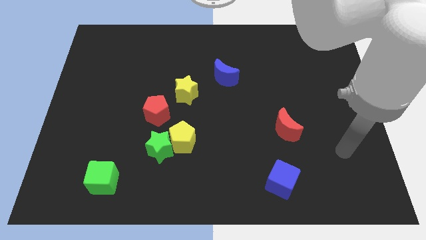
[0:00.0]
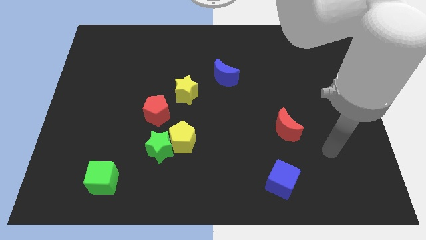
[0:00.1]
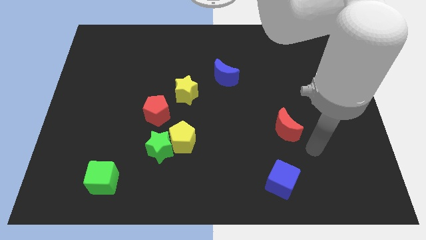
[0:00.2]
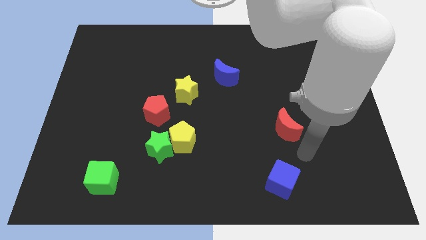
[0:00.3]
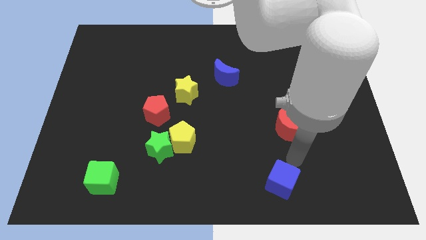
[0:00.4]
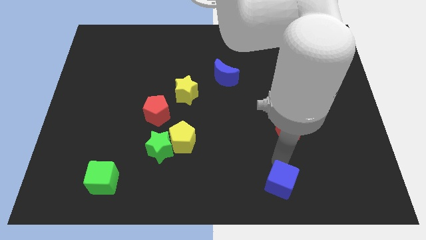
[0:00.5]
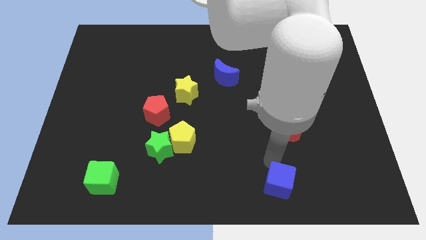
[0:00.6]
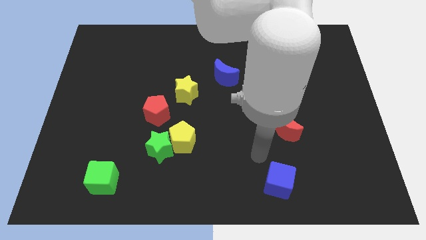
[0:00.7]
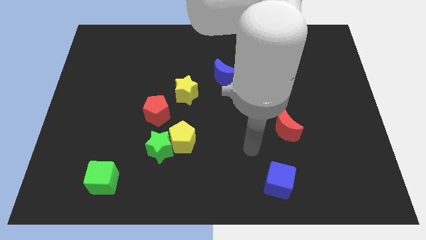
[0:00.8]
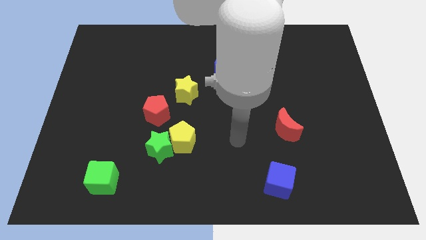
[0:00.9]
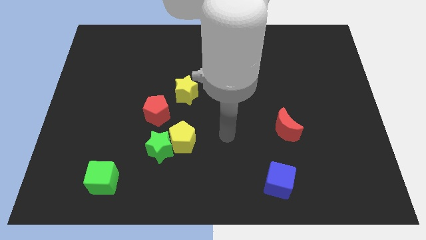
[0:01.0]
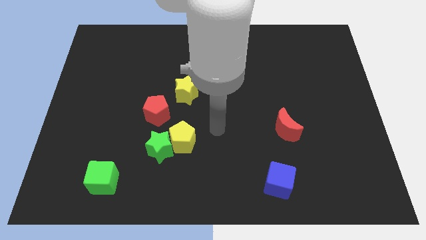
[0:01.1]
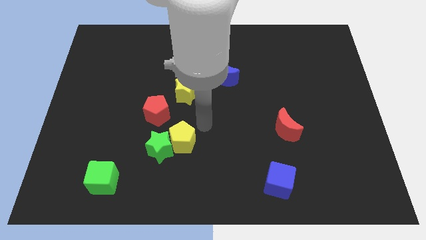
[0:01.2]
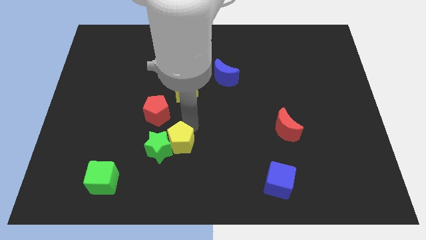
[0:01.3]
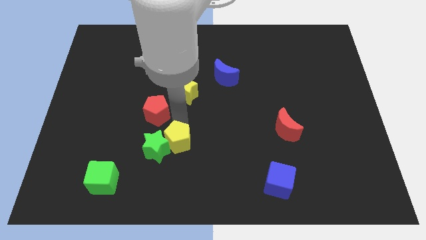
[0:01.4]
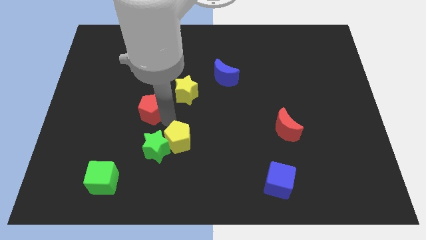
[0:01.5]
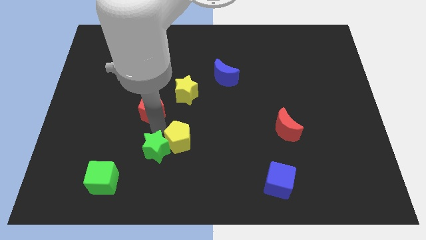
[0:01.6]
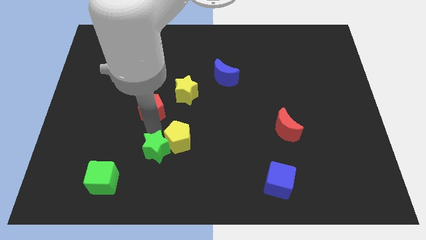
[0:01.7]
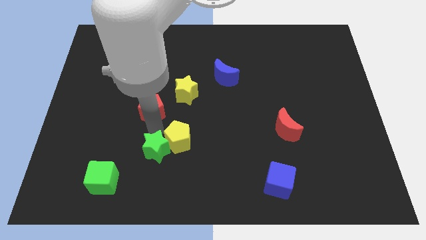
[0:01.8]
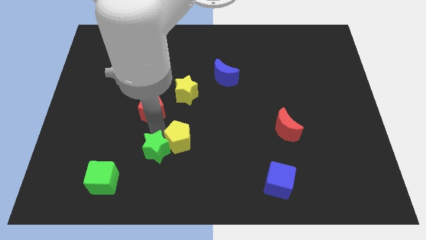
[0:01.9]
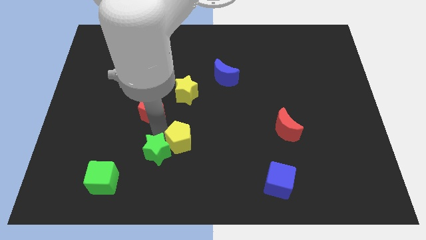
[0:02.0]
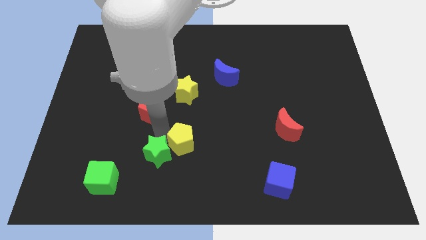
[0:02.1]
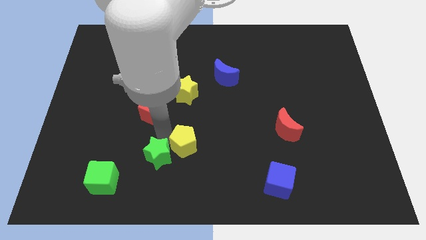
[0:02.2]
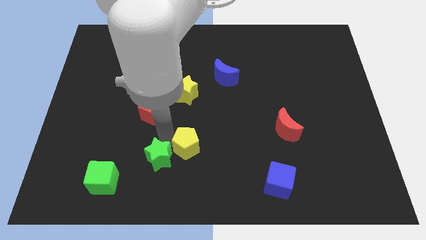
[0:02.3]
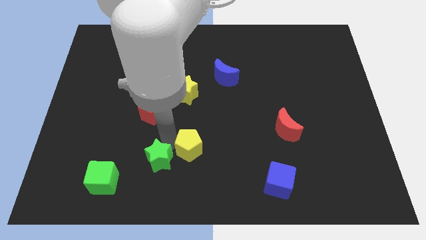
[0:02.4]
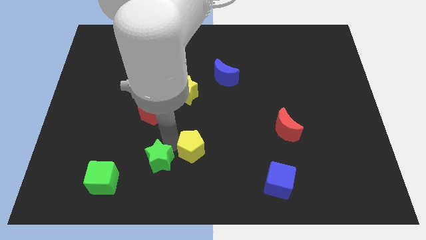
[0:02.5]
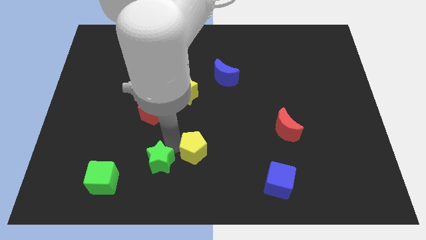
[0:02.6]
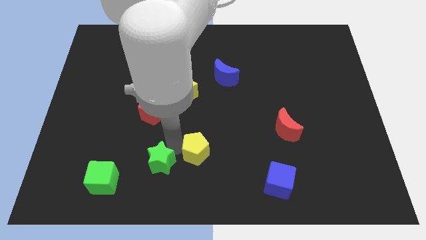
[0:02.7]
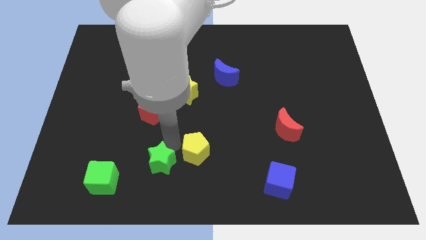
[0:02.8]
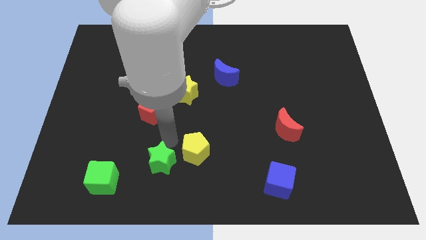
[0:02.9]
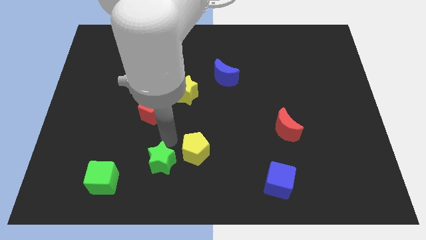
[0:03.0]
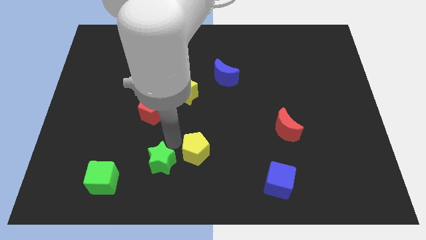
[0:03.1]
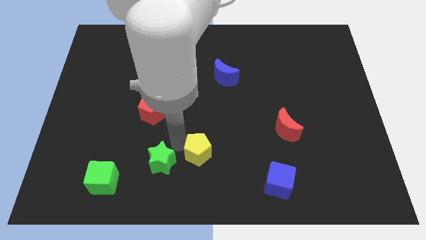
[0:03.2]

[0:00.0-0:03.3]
move the yellow pentagon away from the green star and red pentagon

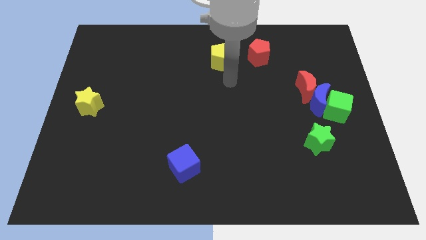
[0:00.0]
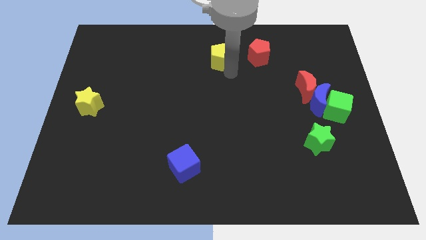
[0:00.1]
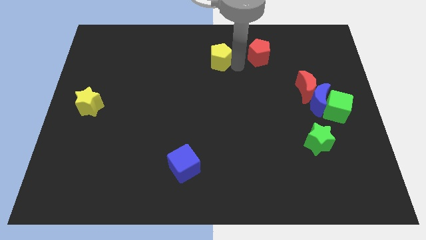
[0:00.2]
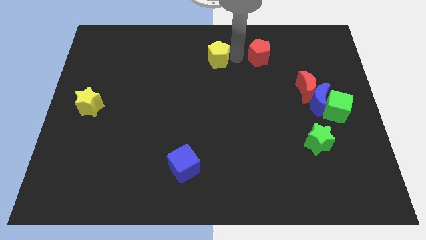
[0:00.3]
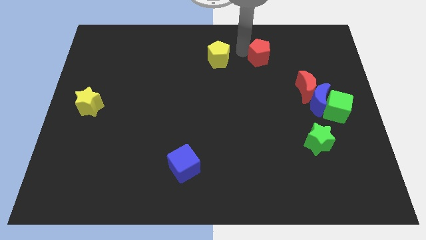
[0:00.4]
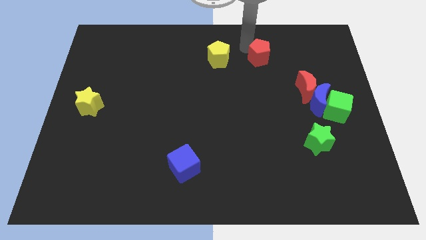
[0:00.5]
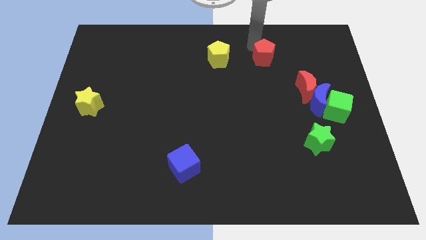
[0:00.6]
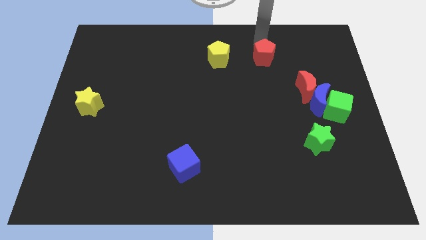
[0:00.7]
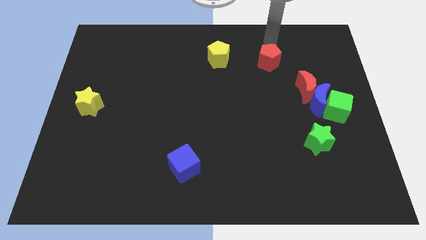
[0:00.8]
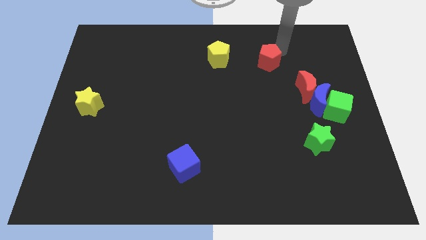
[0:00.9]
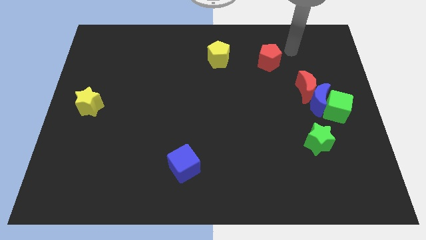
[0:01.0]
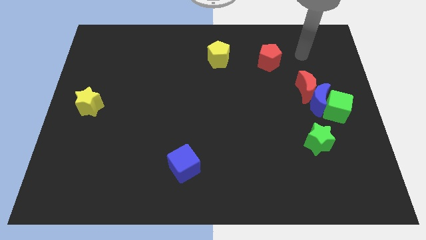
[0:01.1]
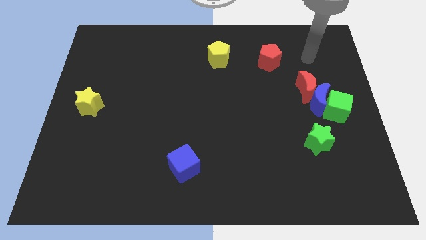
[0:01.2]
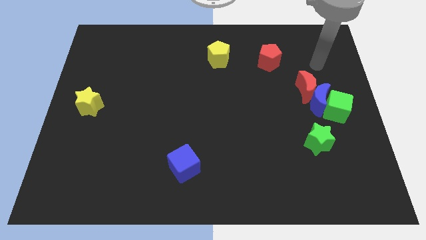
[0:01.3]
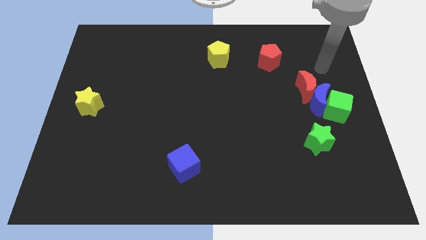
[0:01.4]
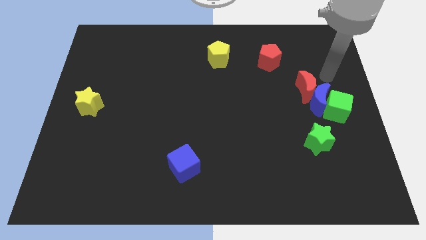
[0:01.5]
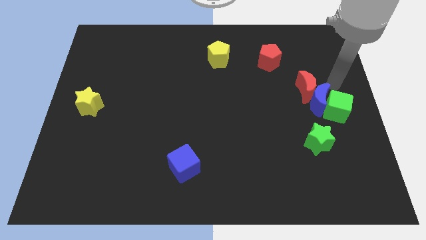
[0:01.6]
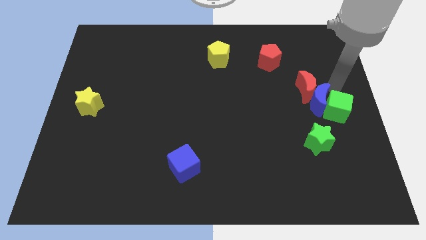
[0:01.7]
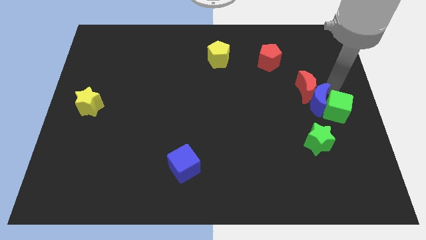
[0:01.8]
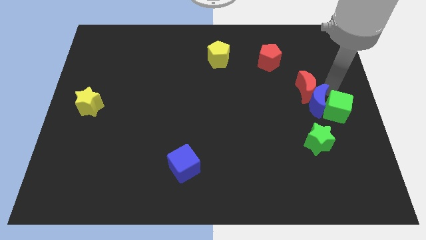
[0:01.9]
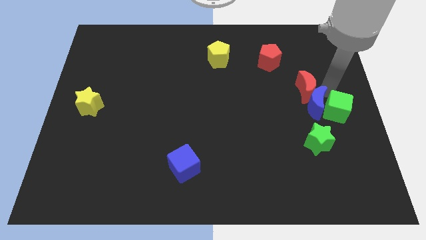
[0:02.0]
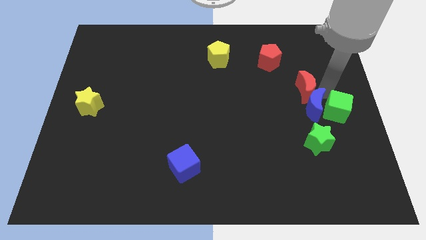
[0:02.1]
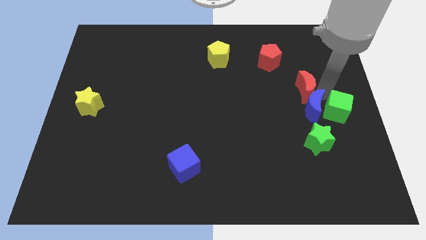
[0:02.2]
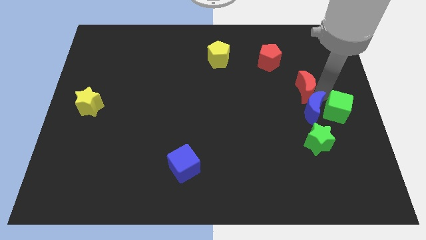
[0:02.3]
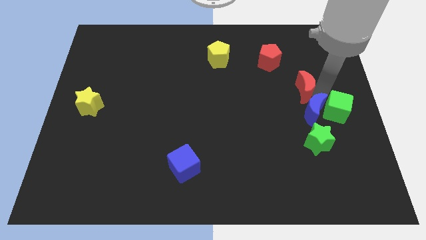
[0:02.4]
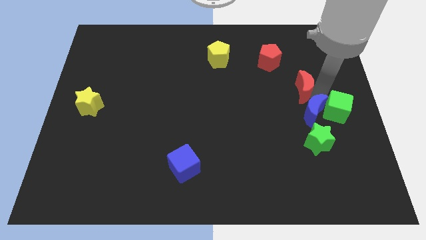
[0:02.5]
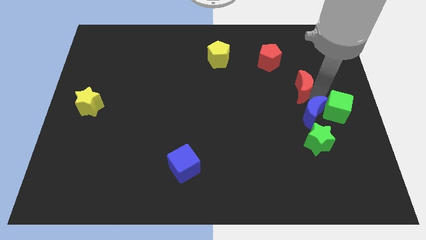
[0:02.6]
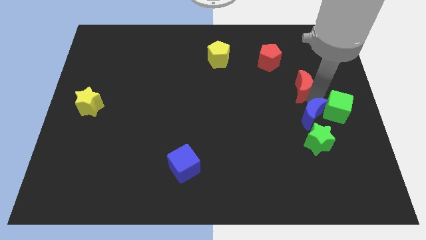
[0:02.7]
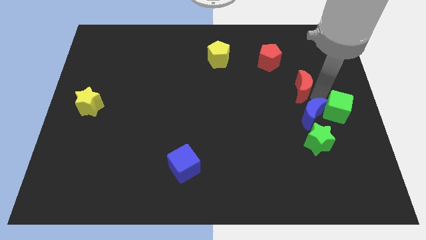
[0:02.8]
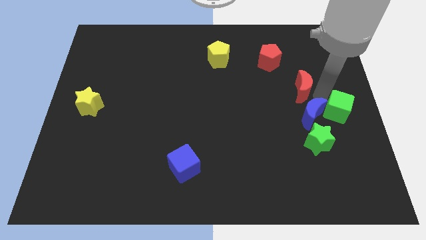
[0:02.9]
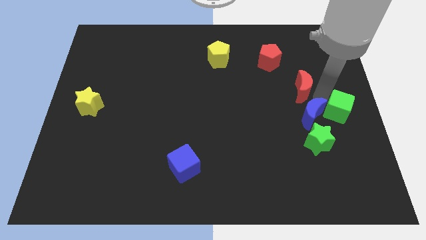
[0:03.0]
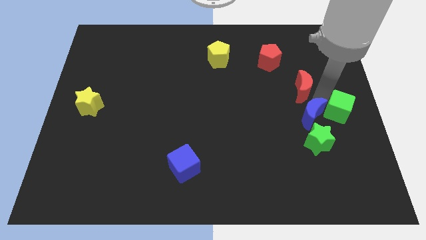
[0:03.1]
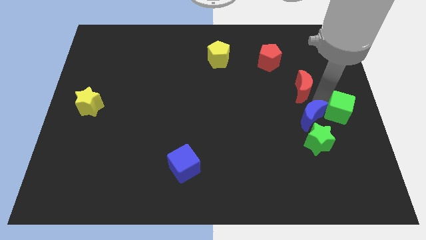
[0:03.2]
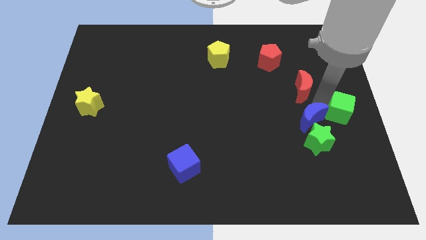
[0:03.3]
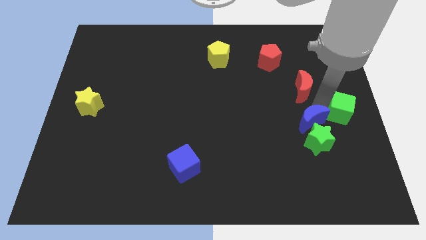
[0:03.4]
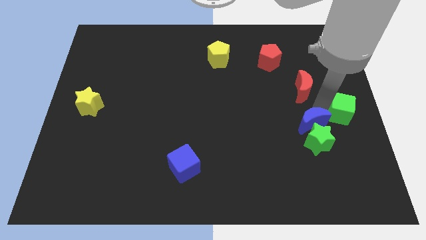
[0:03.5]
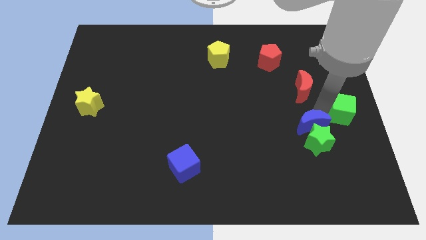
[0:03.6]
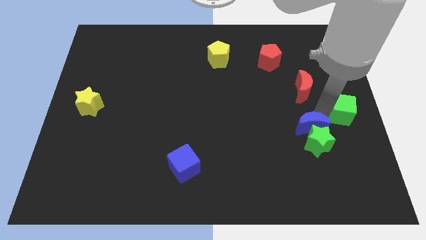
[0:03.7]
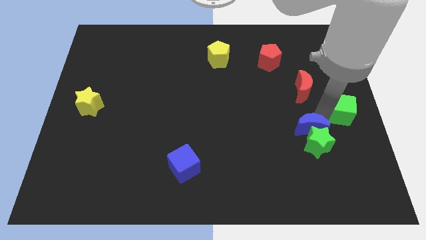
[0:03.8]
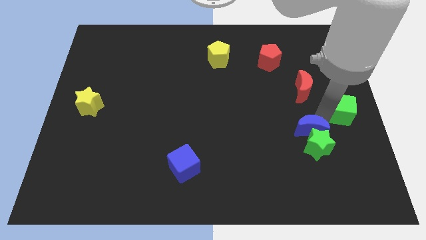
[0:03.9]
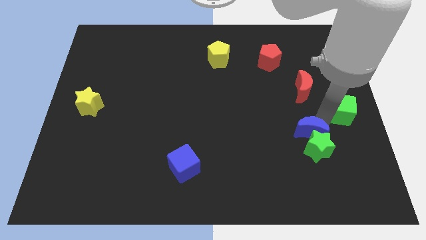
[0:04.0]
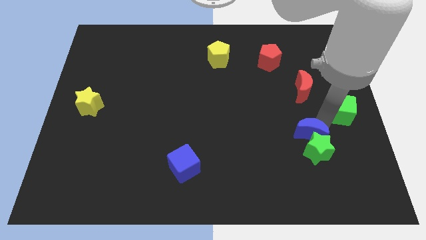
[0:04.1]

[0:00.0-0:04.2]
pull the blue moon apart from the red moon and green cube

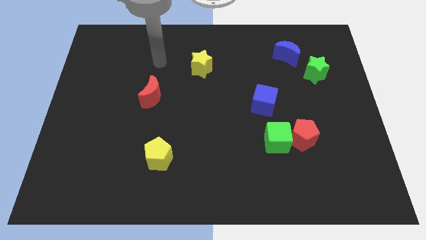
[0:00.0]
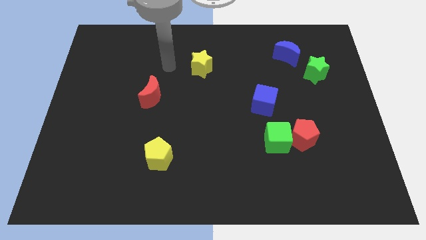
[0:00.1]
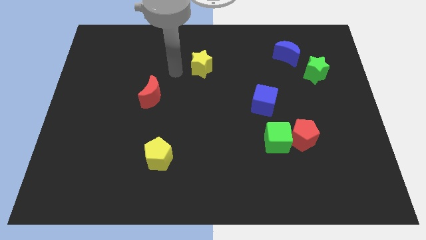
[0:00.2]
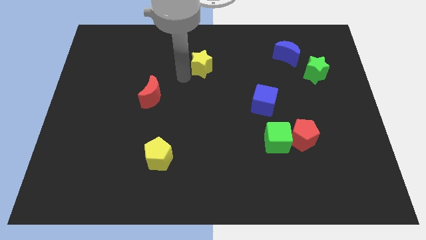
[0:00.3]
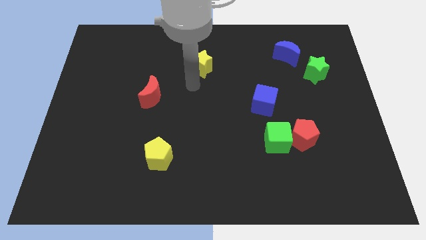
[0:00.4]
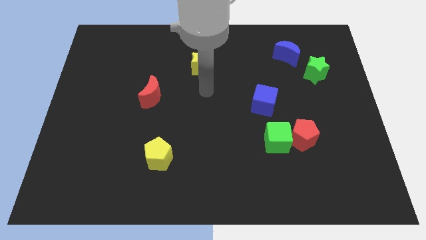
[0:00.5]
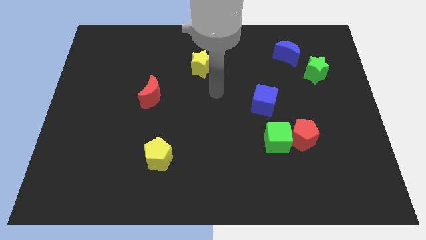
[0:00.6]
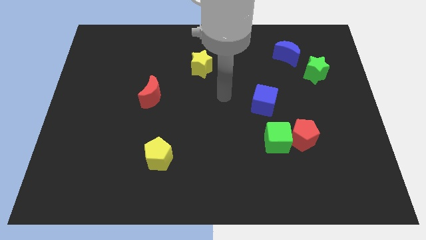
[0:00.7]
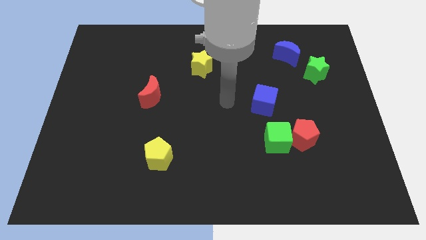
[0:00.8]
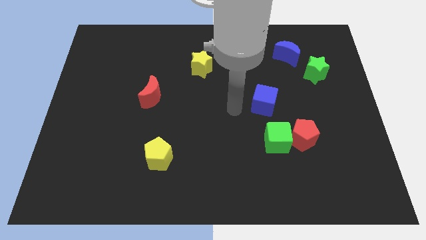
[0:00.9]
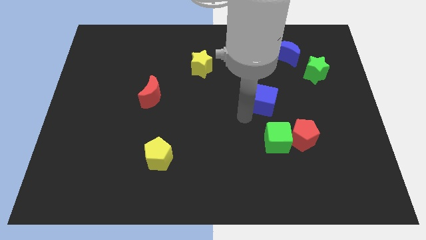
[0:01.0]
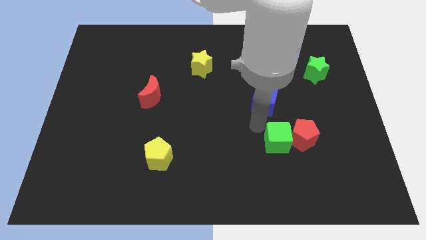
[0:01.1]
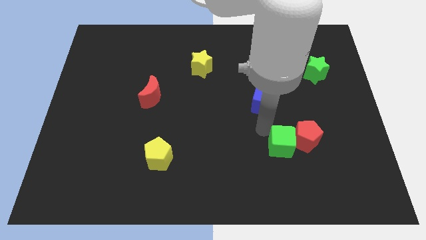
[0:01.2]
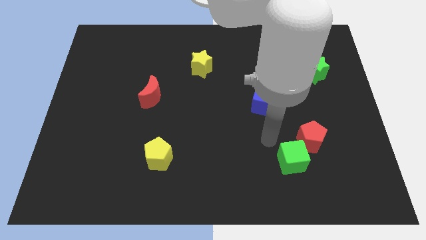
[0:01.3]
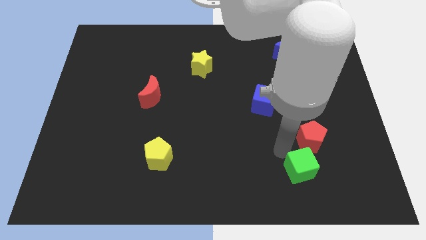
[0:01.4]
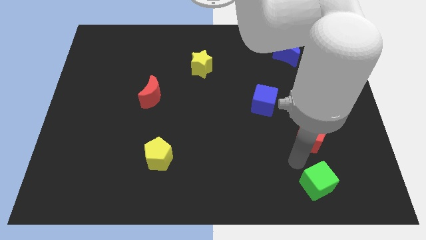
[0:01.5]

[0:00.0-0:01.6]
pull the red pentagon apart from the green cube

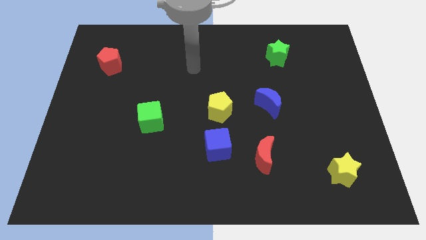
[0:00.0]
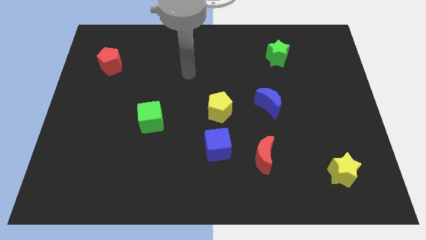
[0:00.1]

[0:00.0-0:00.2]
separate the red moon from the blue cube

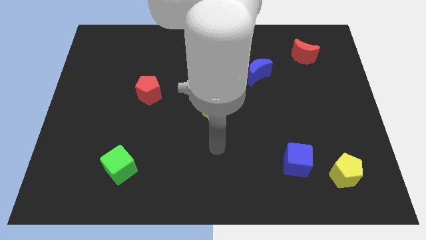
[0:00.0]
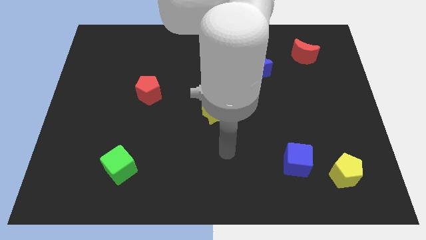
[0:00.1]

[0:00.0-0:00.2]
pull the blue cube apart from the yellow pentagon

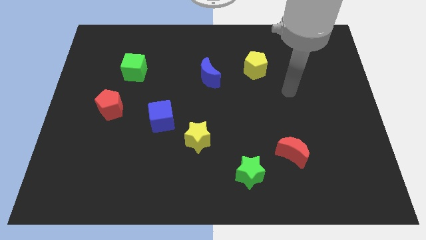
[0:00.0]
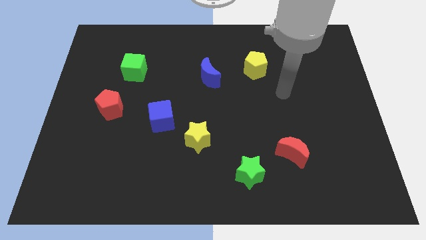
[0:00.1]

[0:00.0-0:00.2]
pull the blue cube apart from the yellow star
